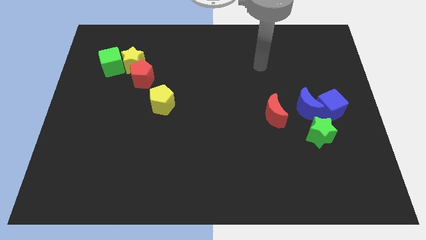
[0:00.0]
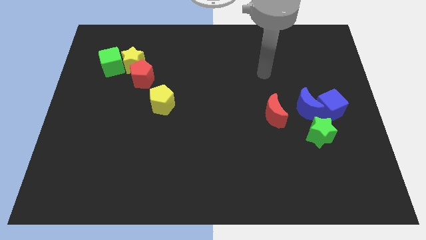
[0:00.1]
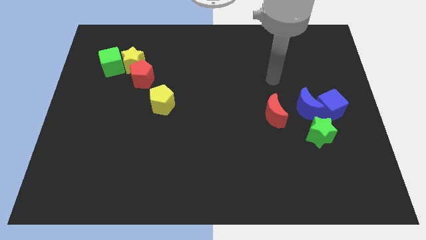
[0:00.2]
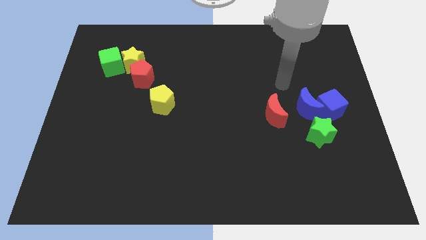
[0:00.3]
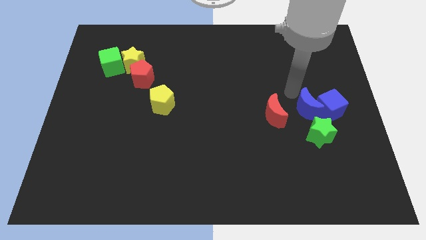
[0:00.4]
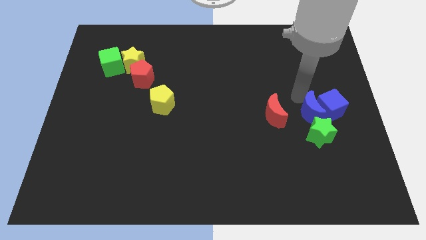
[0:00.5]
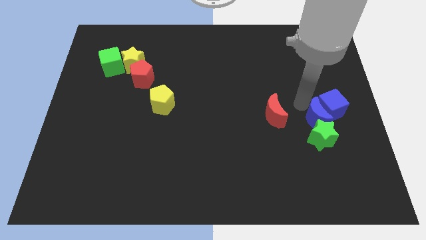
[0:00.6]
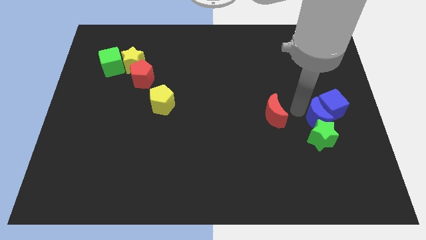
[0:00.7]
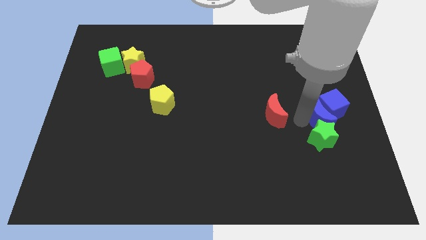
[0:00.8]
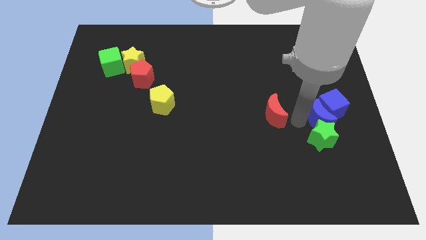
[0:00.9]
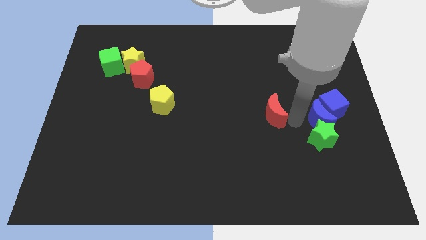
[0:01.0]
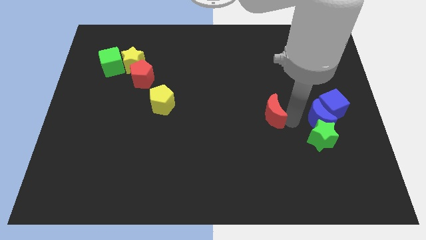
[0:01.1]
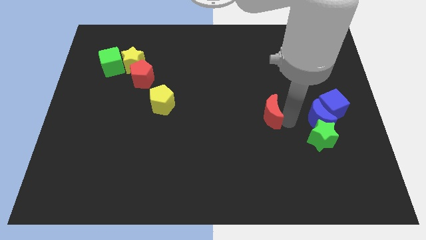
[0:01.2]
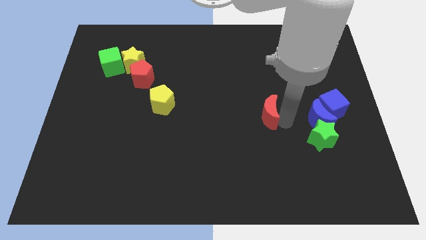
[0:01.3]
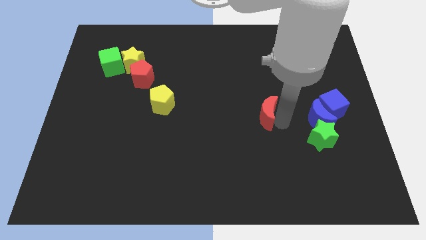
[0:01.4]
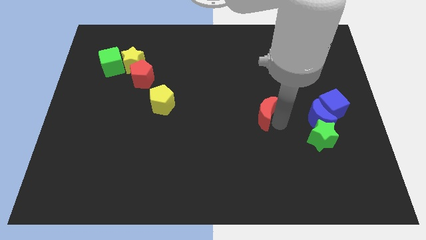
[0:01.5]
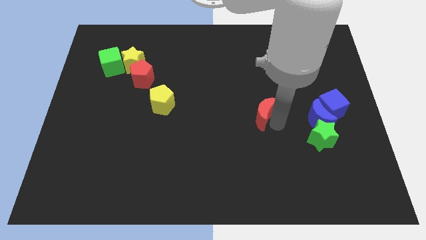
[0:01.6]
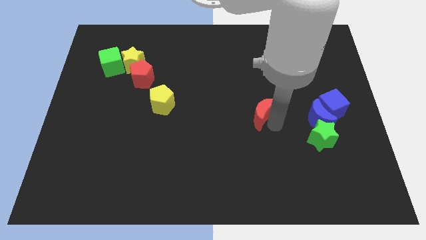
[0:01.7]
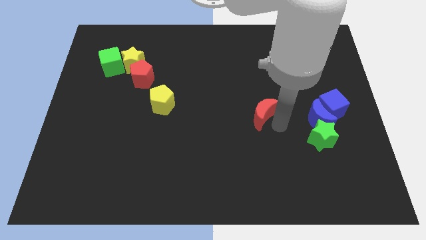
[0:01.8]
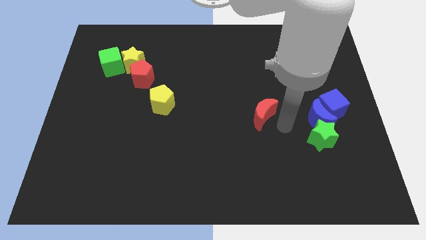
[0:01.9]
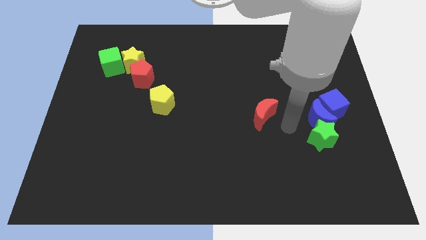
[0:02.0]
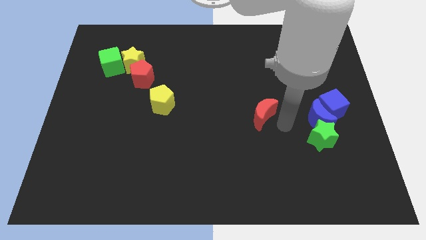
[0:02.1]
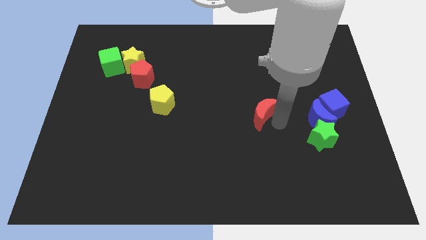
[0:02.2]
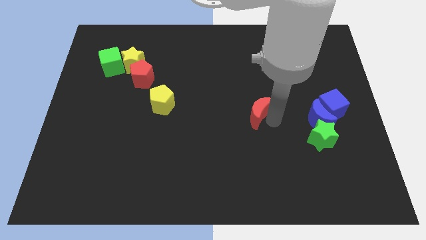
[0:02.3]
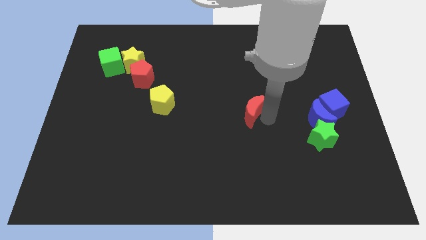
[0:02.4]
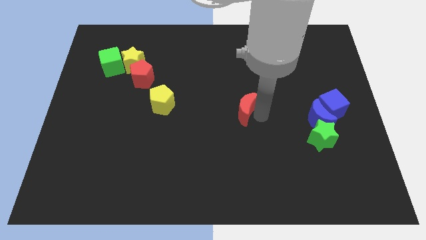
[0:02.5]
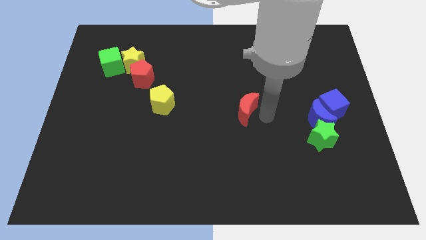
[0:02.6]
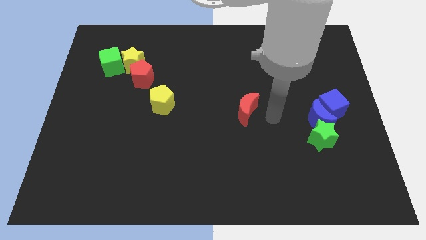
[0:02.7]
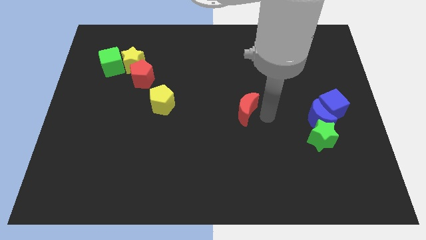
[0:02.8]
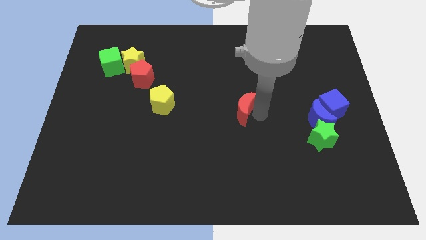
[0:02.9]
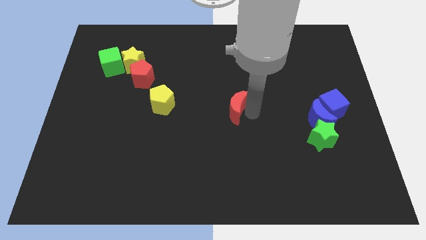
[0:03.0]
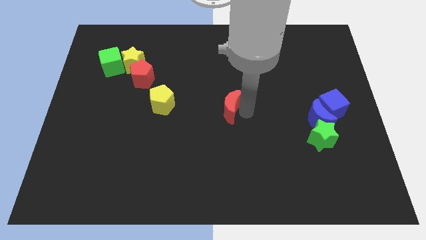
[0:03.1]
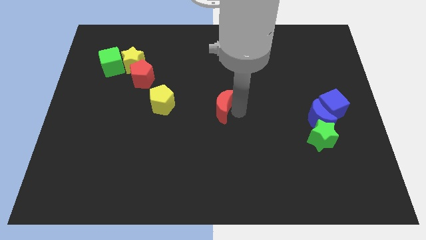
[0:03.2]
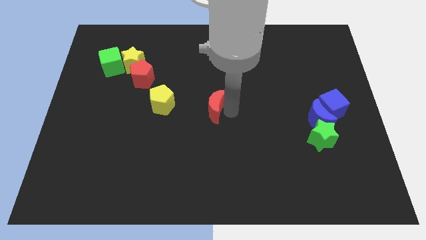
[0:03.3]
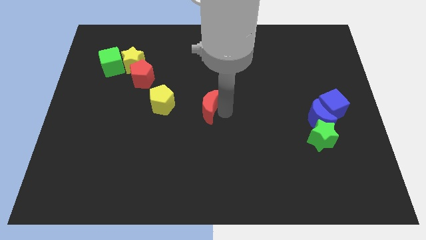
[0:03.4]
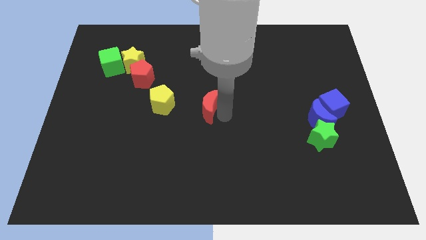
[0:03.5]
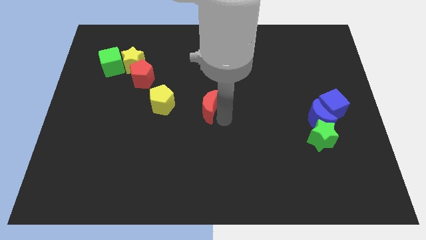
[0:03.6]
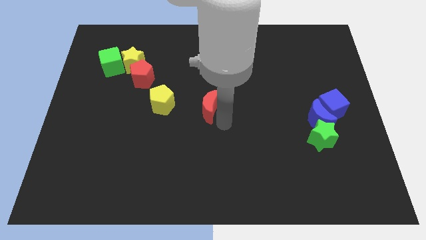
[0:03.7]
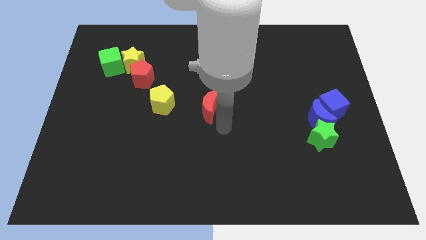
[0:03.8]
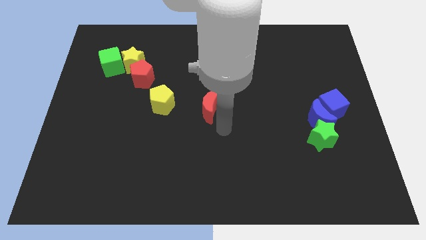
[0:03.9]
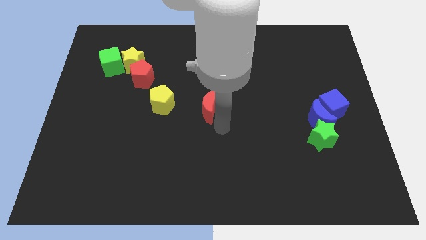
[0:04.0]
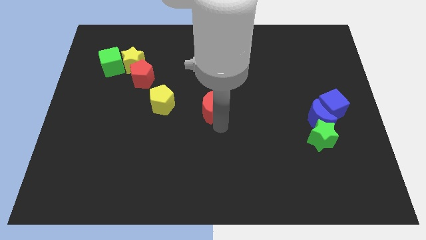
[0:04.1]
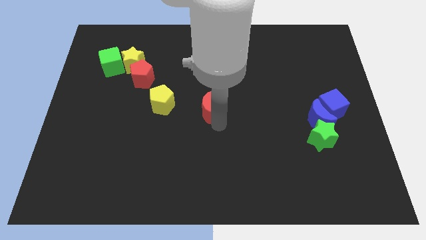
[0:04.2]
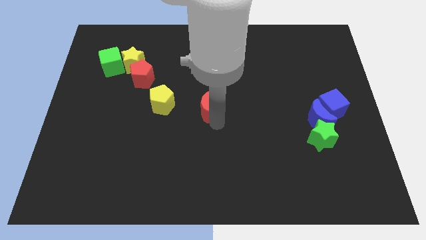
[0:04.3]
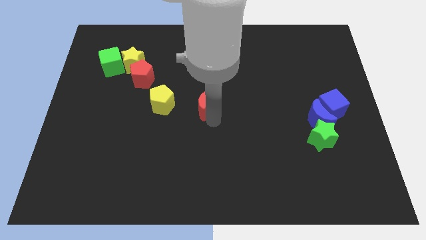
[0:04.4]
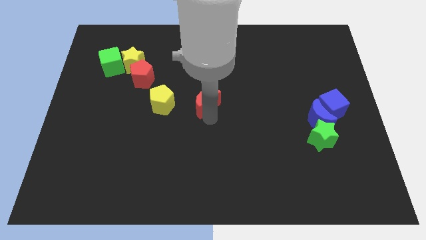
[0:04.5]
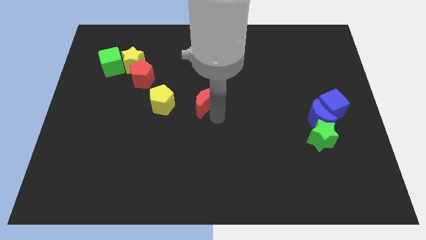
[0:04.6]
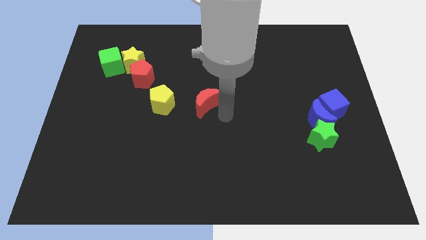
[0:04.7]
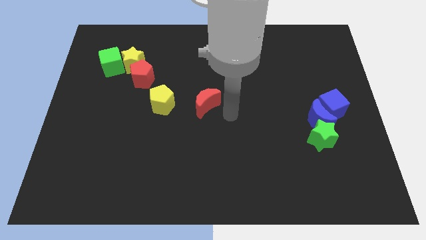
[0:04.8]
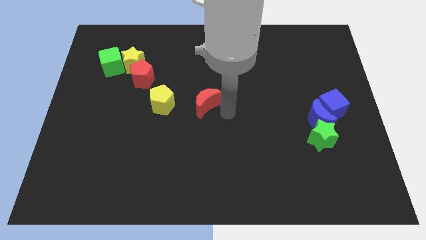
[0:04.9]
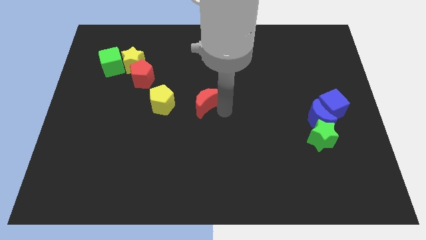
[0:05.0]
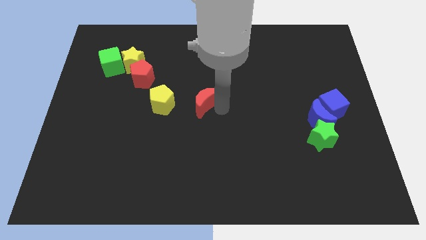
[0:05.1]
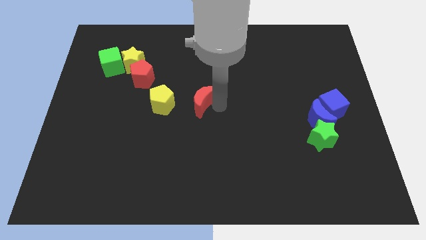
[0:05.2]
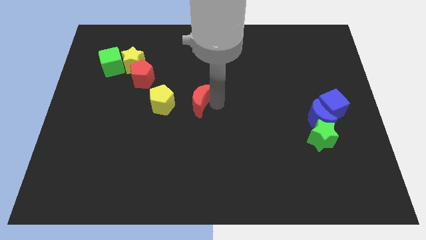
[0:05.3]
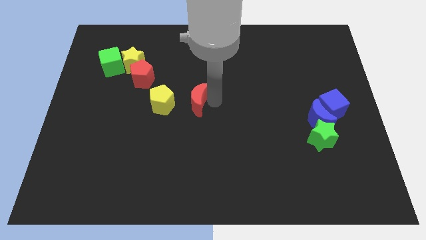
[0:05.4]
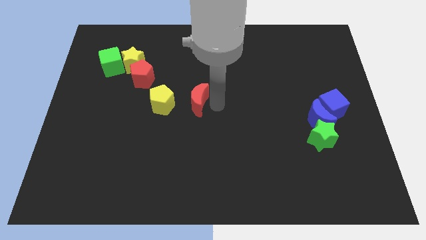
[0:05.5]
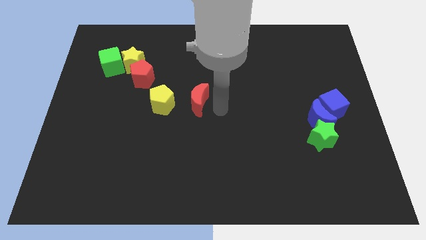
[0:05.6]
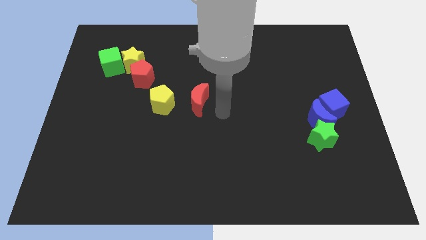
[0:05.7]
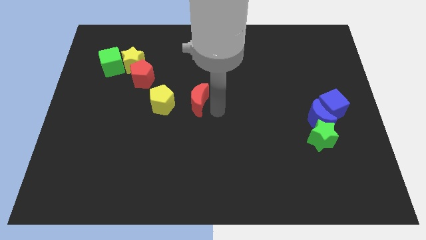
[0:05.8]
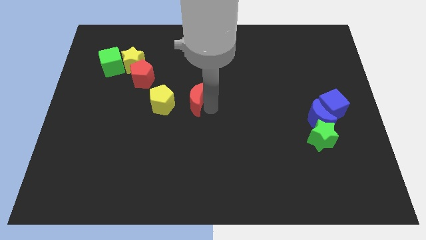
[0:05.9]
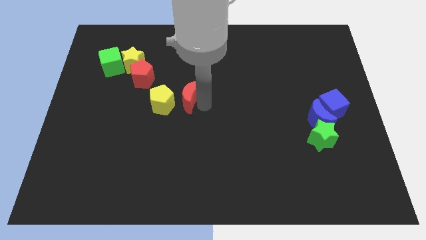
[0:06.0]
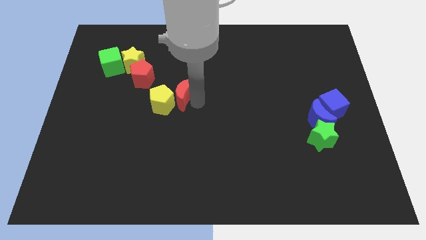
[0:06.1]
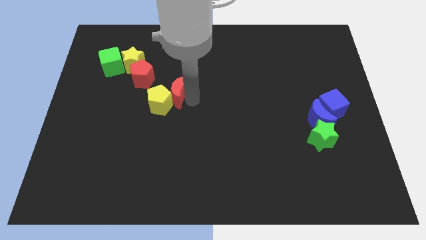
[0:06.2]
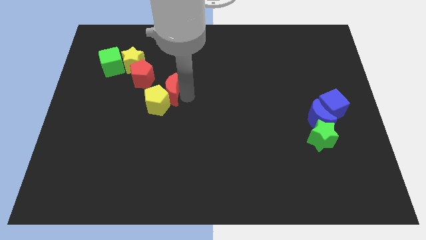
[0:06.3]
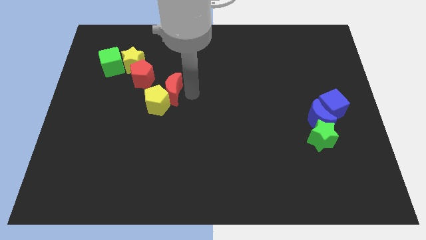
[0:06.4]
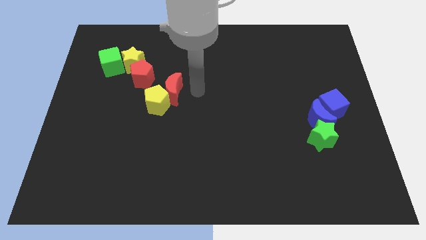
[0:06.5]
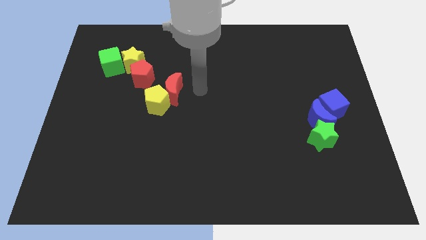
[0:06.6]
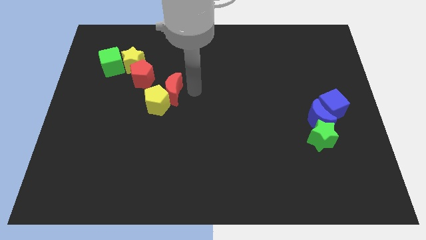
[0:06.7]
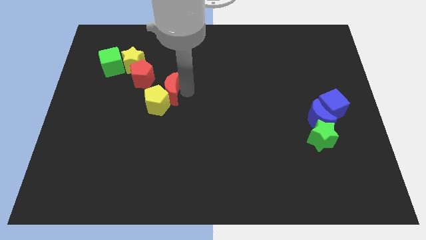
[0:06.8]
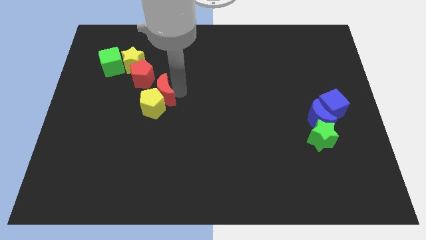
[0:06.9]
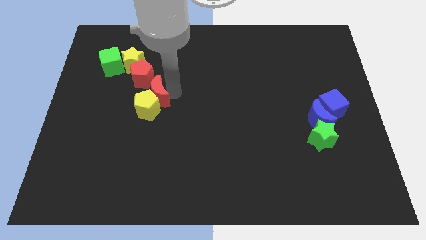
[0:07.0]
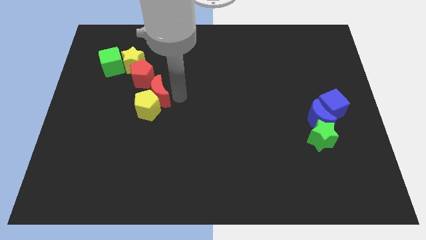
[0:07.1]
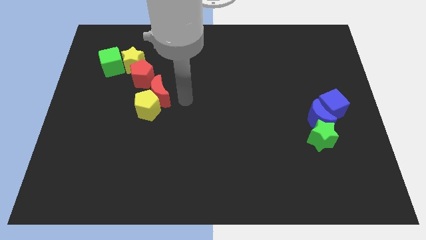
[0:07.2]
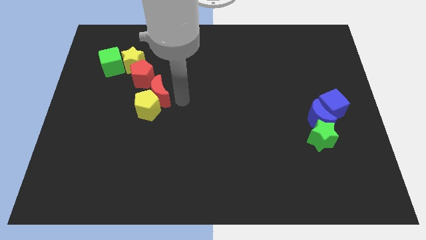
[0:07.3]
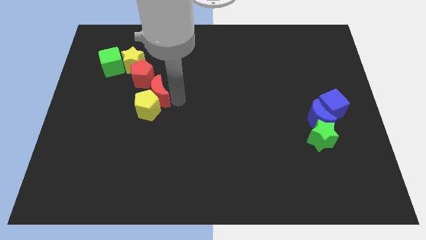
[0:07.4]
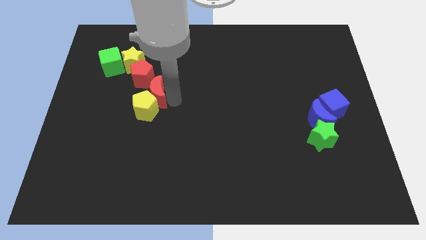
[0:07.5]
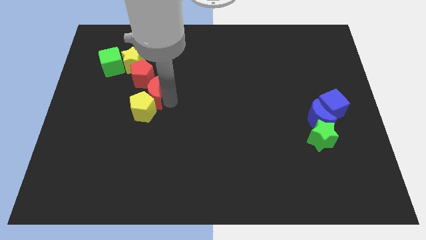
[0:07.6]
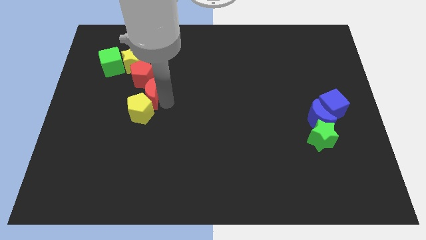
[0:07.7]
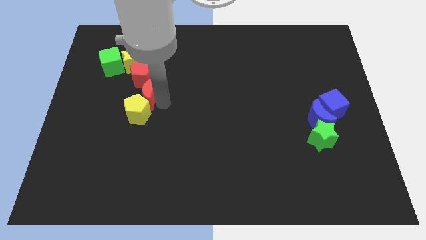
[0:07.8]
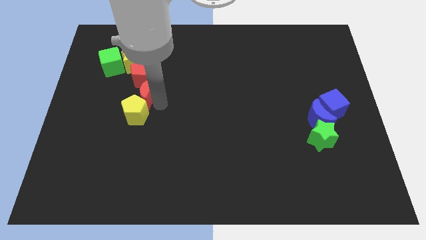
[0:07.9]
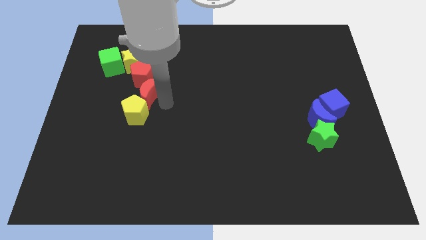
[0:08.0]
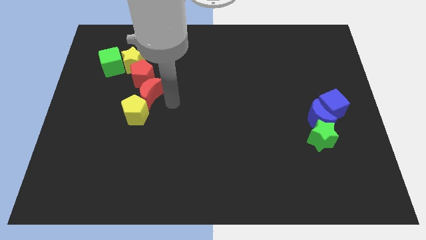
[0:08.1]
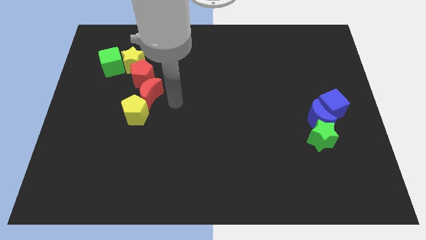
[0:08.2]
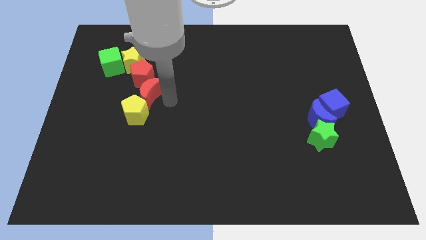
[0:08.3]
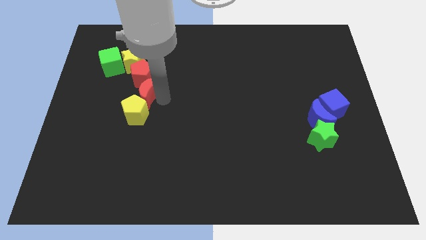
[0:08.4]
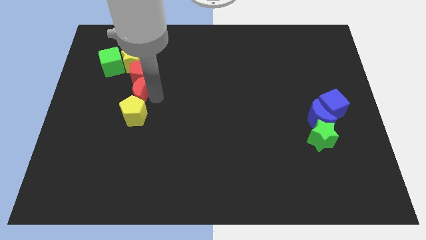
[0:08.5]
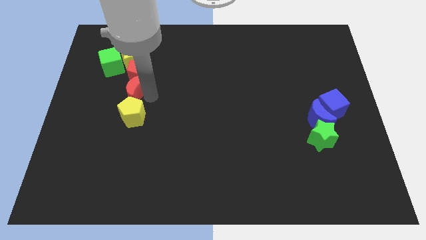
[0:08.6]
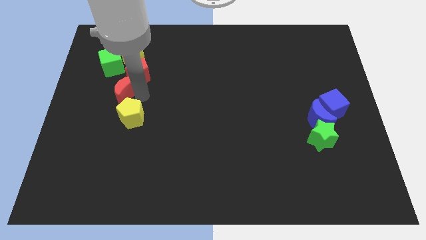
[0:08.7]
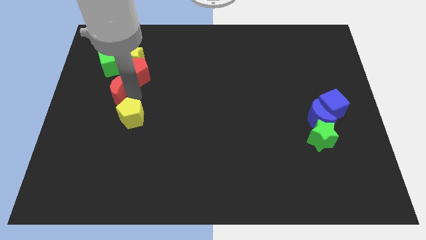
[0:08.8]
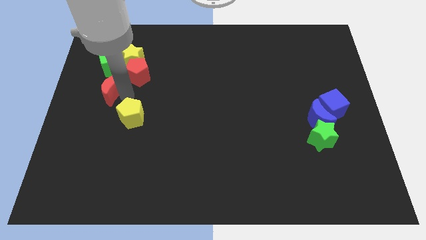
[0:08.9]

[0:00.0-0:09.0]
put the red moon diagonally down and to the left of the yellow star
